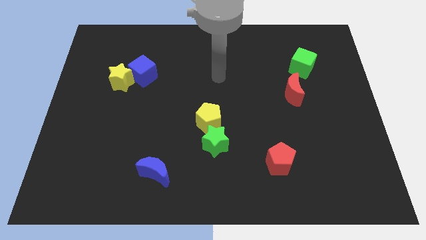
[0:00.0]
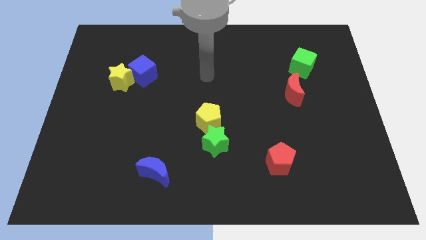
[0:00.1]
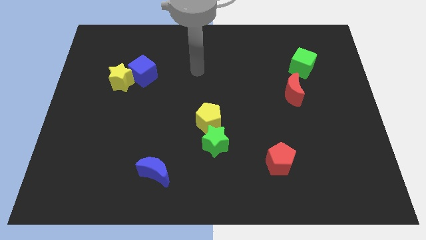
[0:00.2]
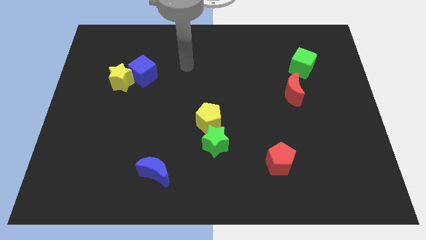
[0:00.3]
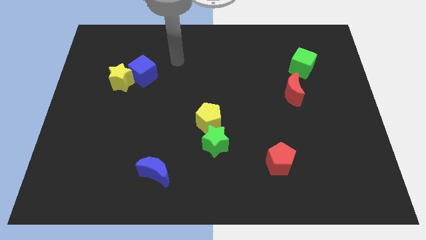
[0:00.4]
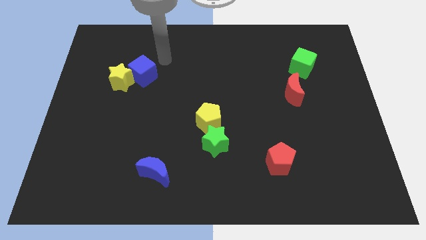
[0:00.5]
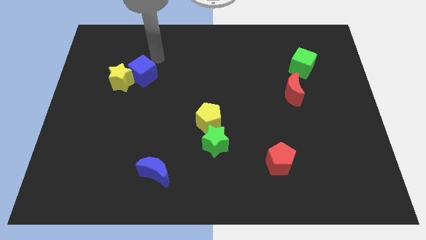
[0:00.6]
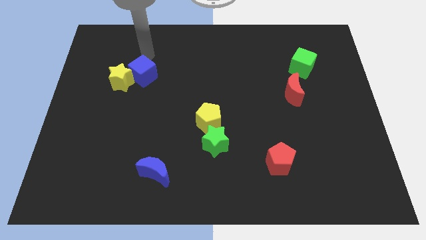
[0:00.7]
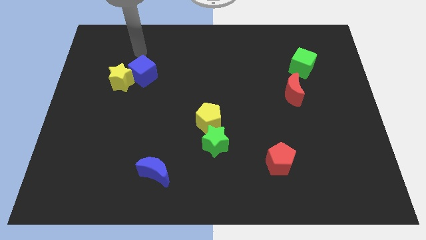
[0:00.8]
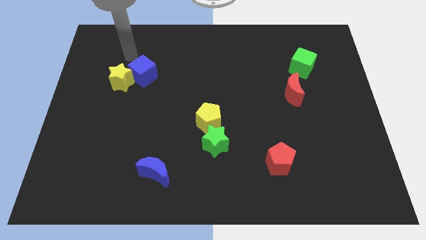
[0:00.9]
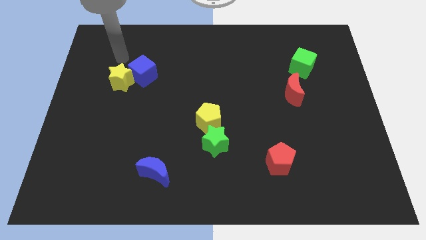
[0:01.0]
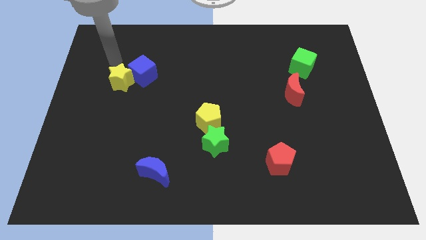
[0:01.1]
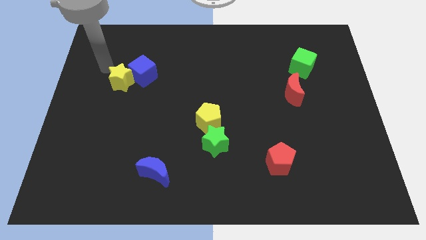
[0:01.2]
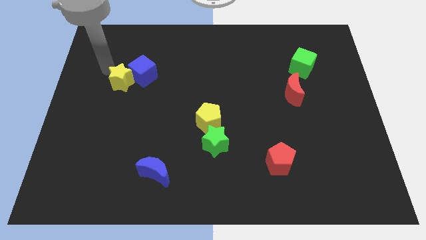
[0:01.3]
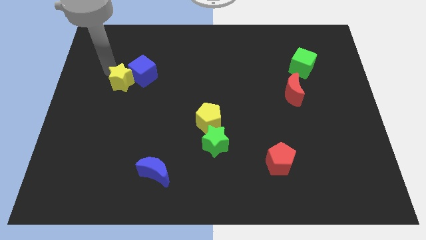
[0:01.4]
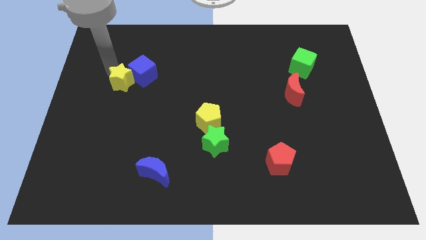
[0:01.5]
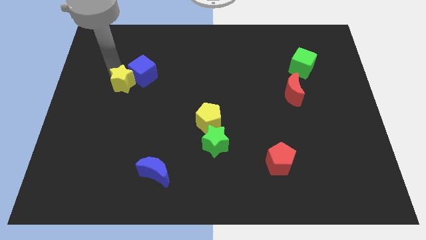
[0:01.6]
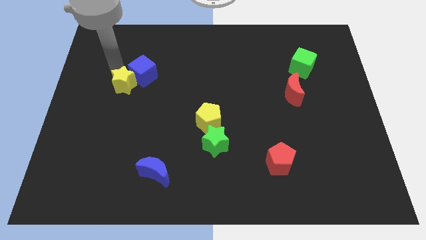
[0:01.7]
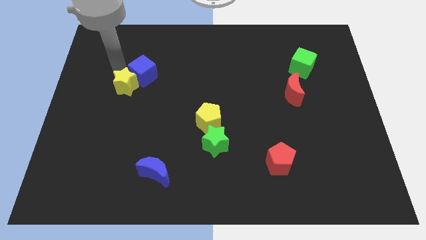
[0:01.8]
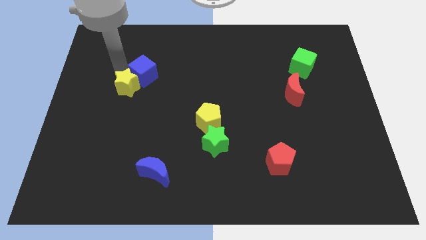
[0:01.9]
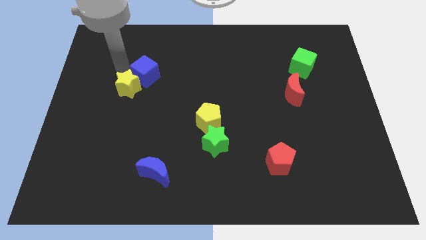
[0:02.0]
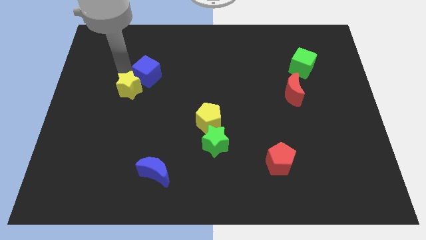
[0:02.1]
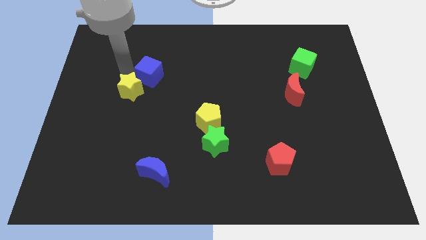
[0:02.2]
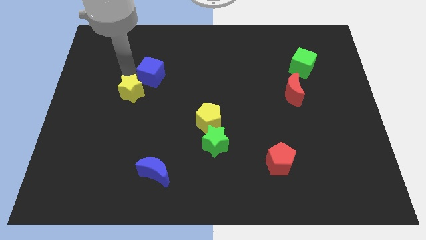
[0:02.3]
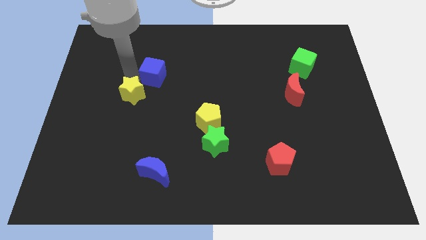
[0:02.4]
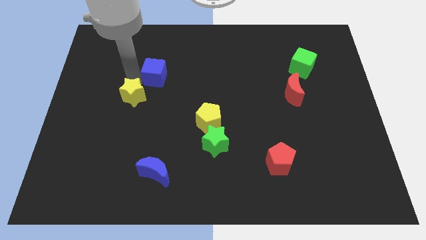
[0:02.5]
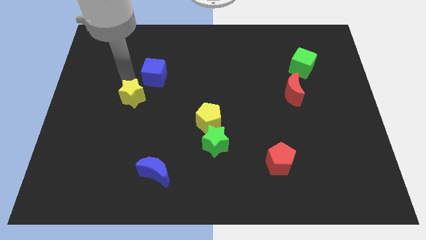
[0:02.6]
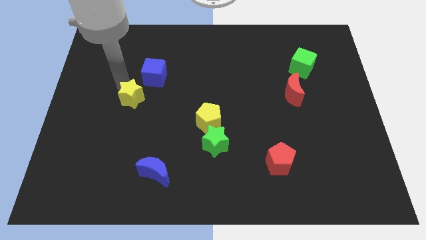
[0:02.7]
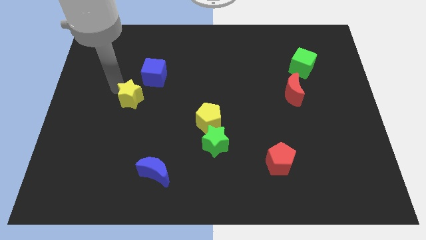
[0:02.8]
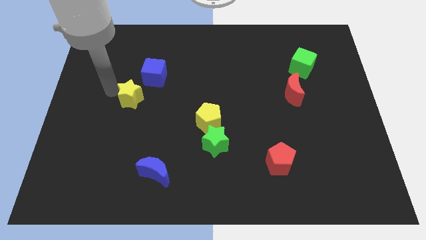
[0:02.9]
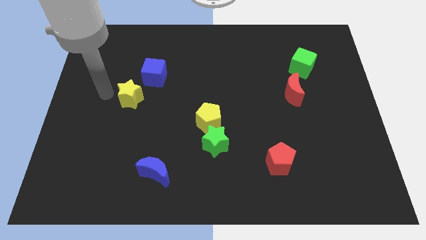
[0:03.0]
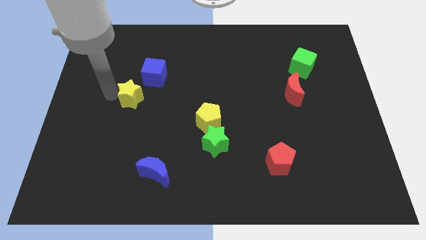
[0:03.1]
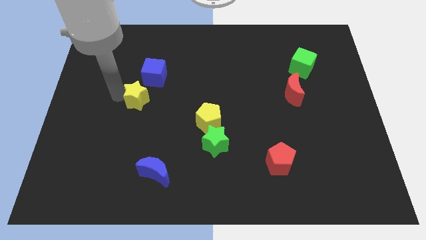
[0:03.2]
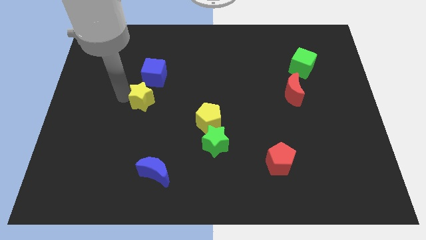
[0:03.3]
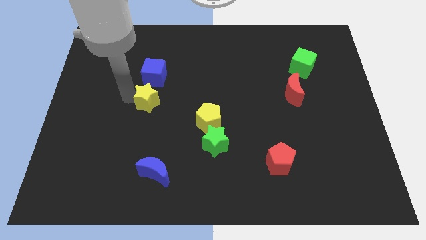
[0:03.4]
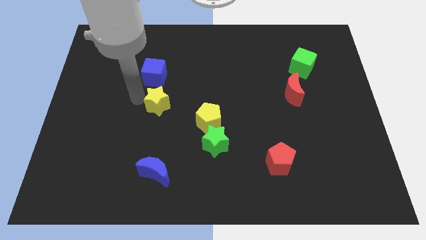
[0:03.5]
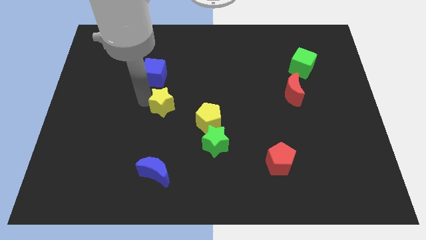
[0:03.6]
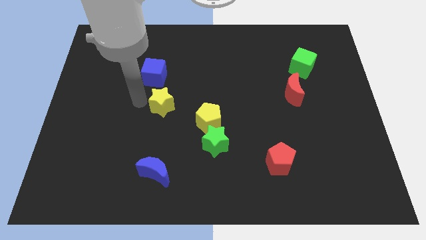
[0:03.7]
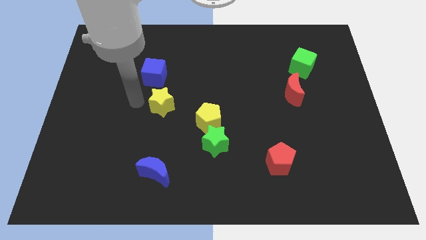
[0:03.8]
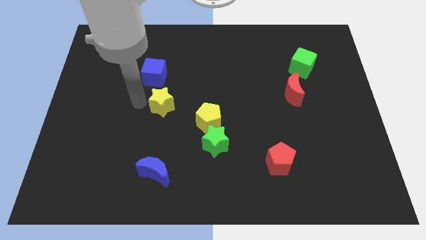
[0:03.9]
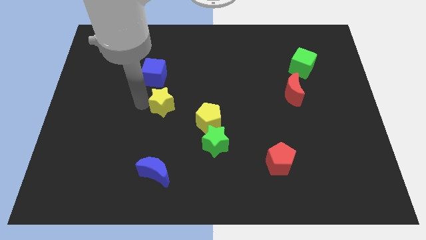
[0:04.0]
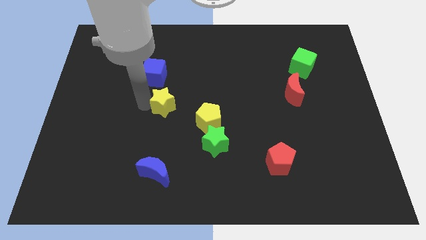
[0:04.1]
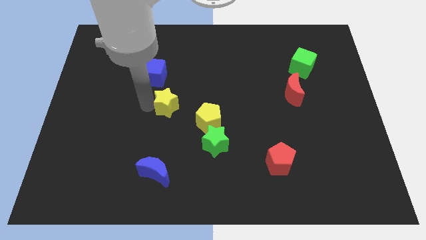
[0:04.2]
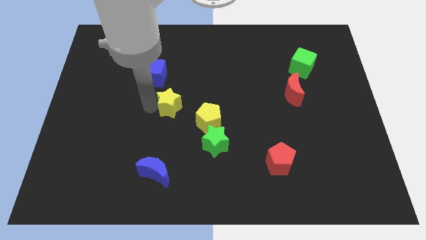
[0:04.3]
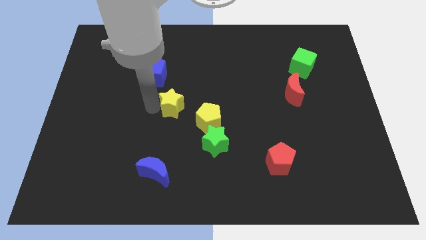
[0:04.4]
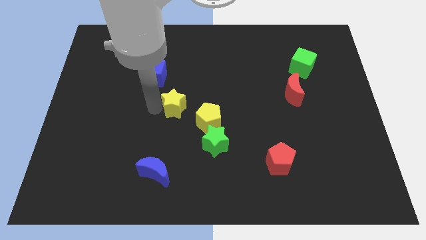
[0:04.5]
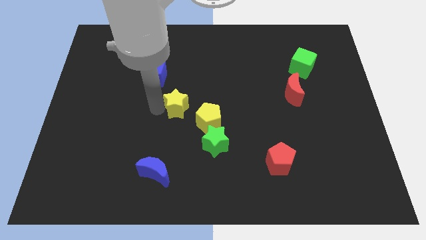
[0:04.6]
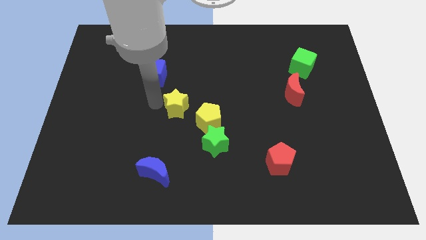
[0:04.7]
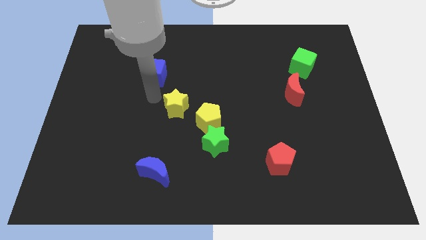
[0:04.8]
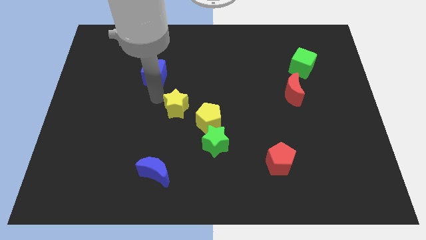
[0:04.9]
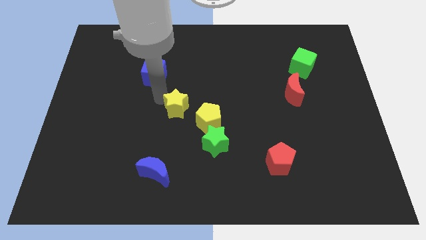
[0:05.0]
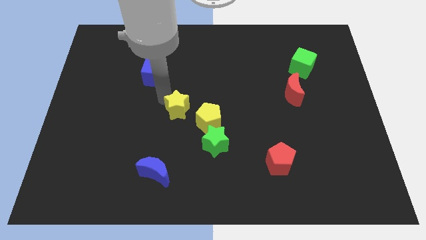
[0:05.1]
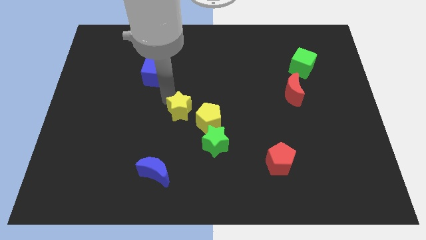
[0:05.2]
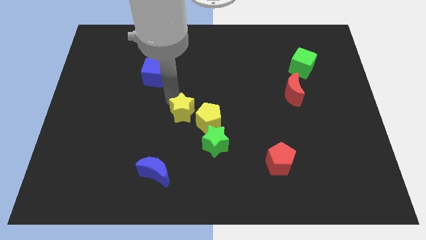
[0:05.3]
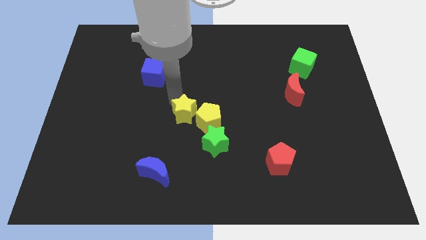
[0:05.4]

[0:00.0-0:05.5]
put the yellow star towards the yellow pentagon

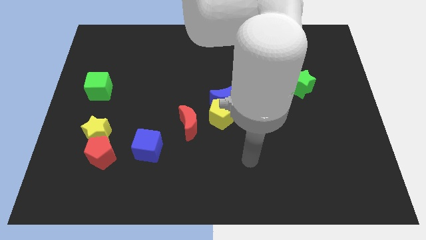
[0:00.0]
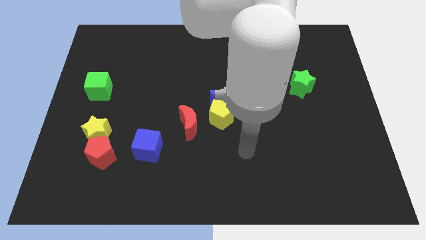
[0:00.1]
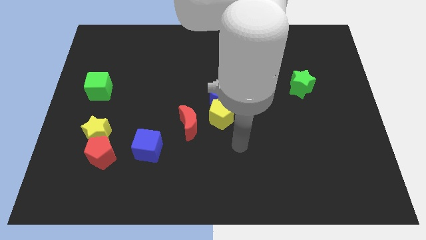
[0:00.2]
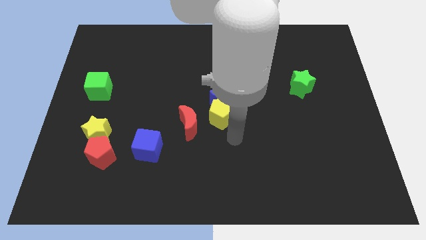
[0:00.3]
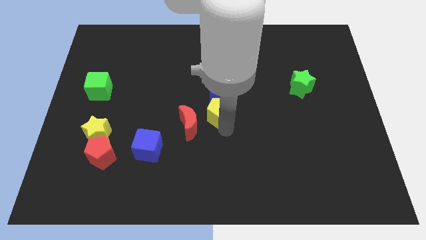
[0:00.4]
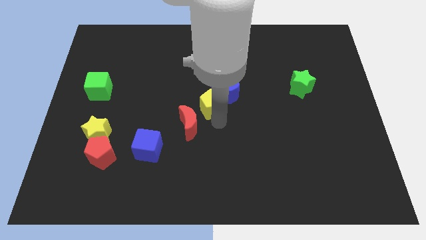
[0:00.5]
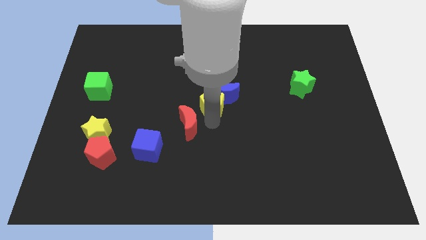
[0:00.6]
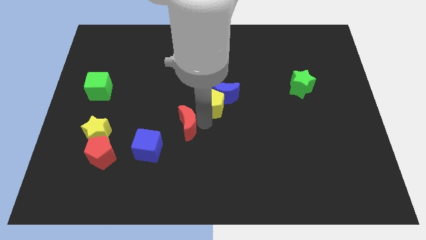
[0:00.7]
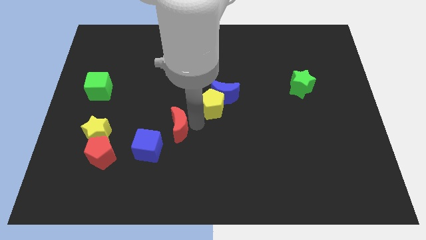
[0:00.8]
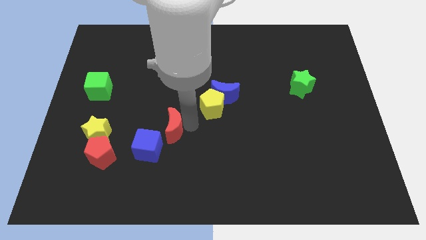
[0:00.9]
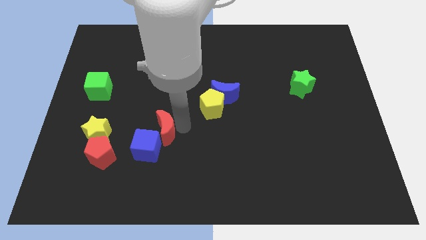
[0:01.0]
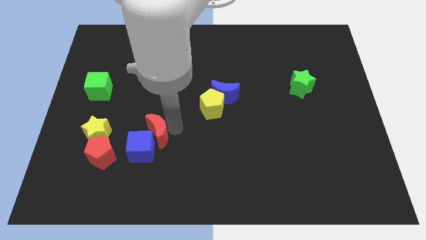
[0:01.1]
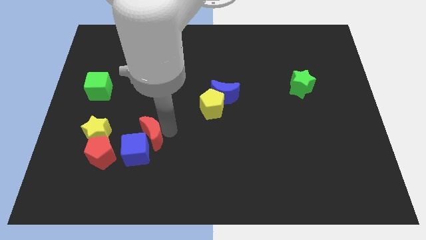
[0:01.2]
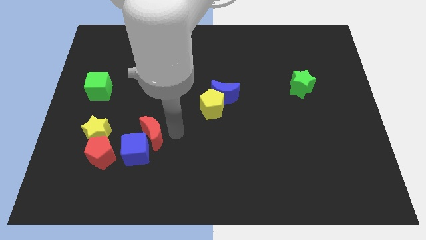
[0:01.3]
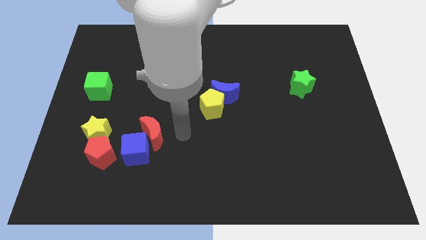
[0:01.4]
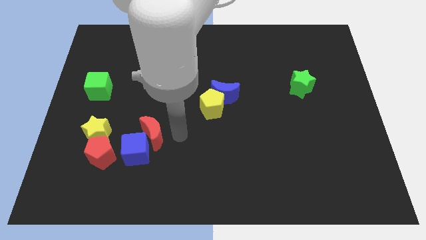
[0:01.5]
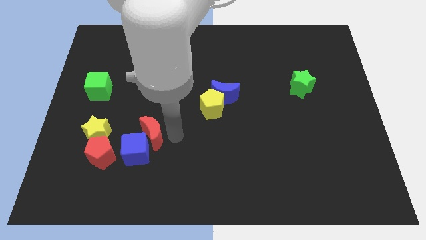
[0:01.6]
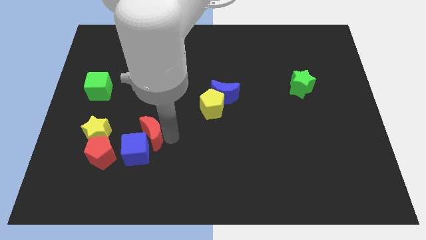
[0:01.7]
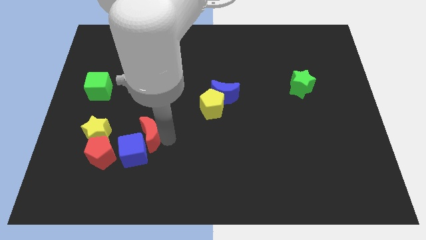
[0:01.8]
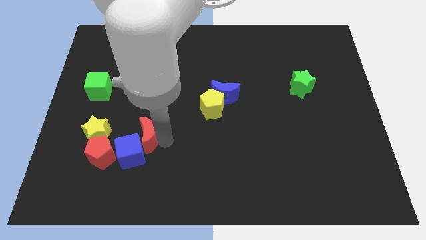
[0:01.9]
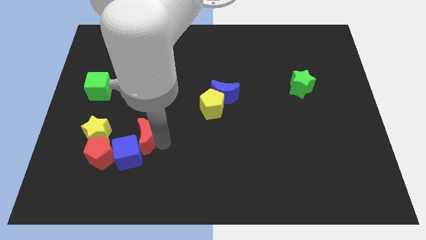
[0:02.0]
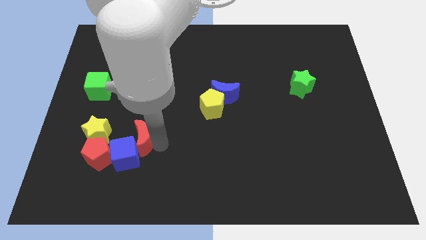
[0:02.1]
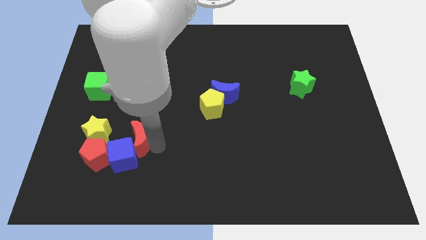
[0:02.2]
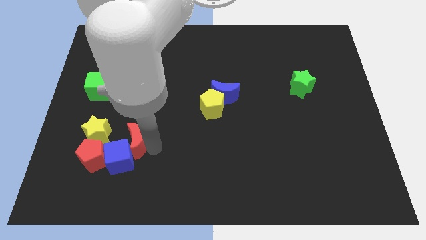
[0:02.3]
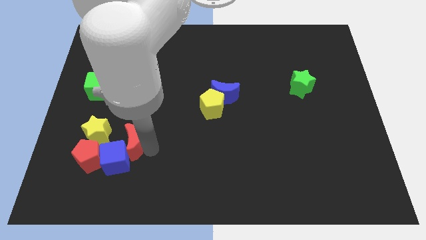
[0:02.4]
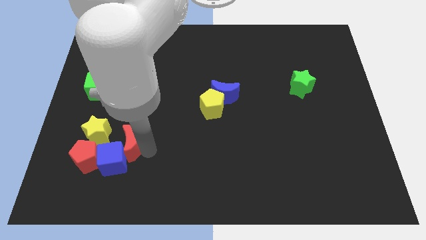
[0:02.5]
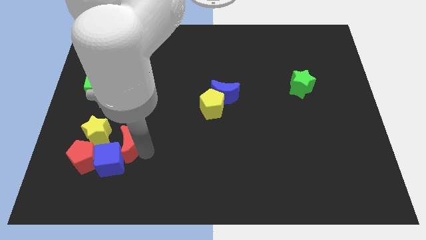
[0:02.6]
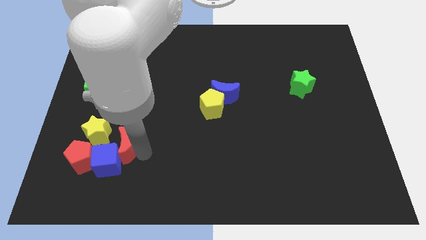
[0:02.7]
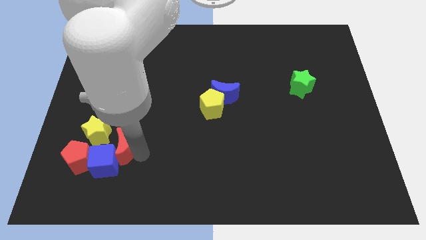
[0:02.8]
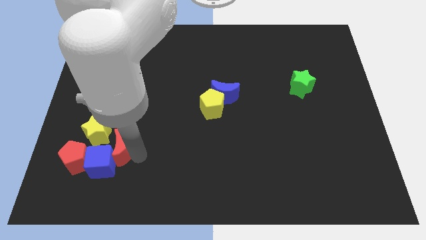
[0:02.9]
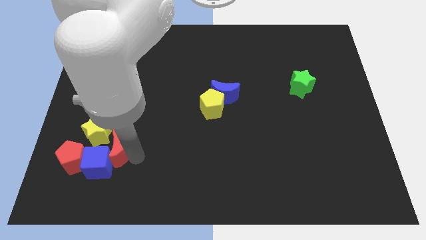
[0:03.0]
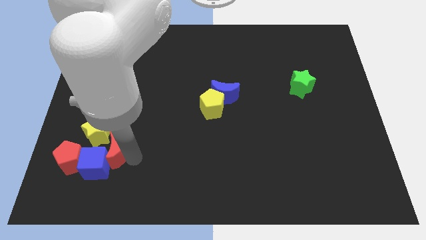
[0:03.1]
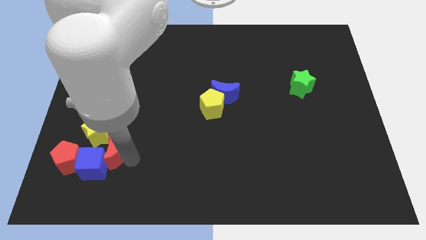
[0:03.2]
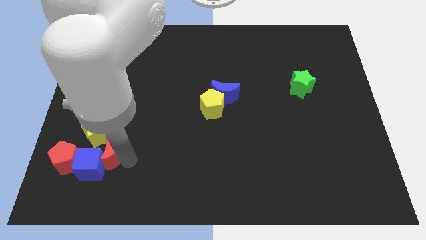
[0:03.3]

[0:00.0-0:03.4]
move the red moon to the yellow star
